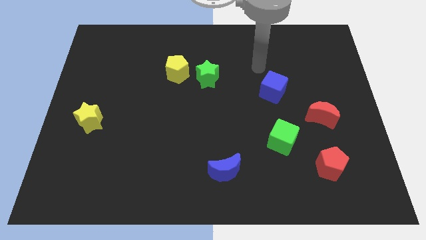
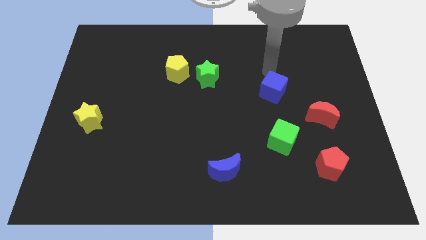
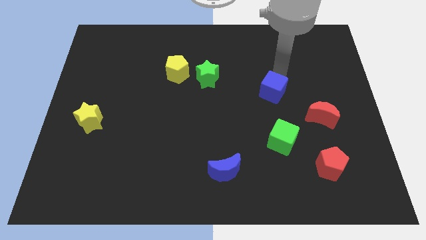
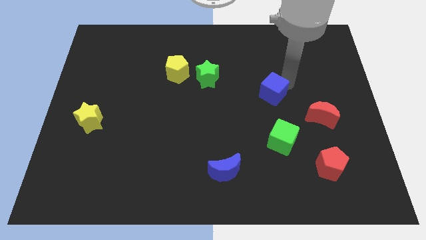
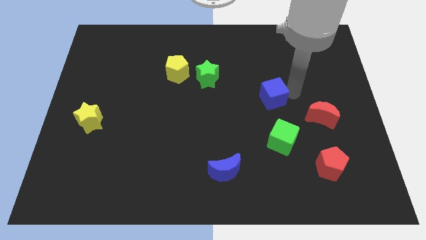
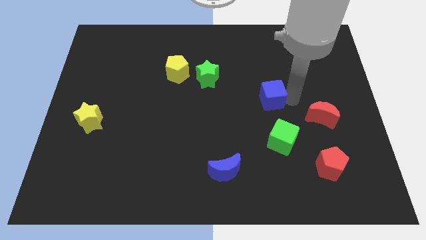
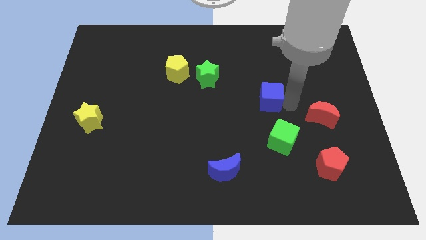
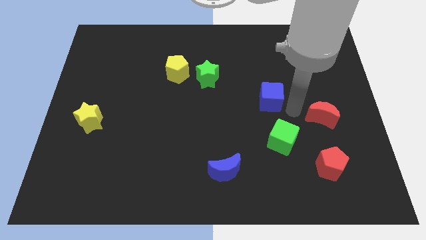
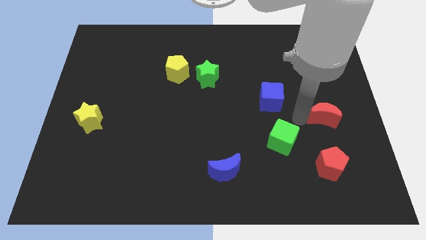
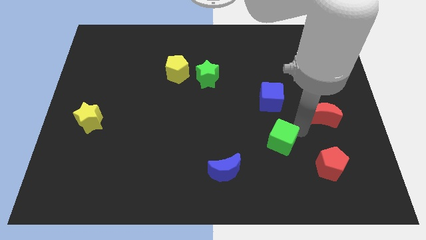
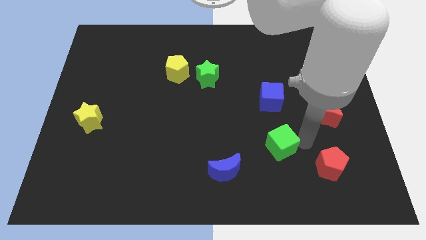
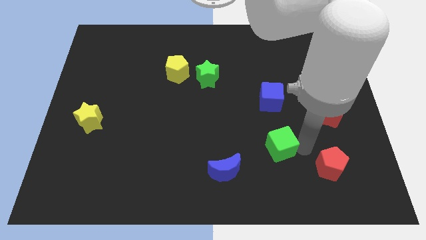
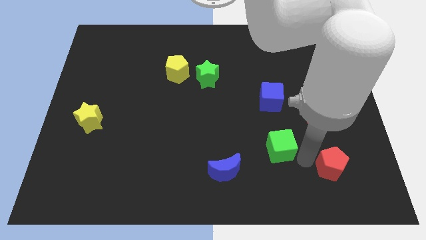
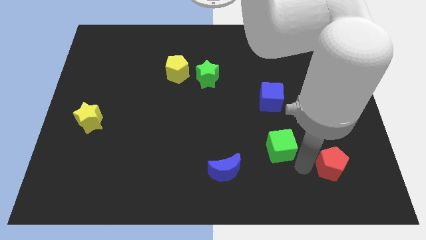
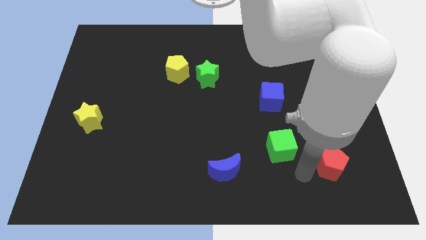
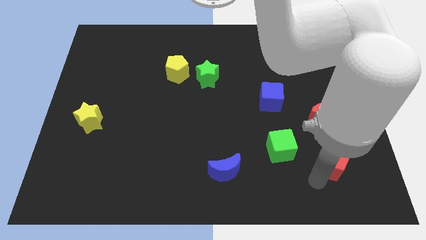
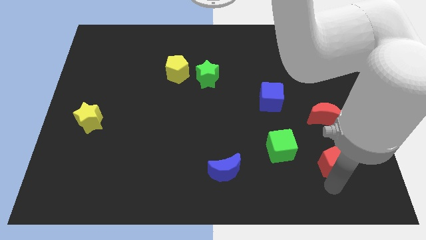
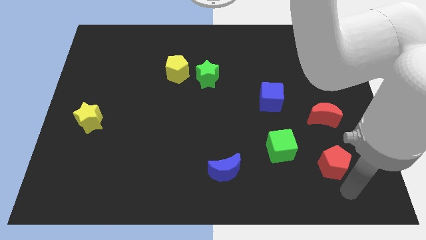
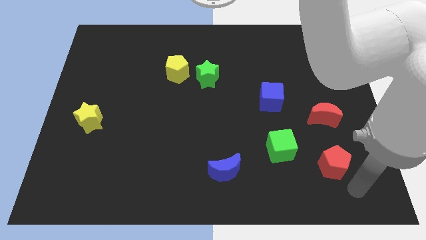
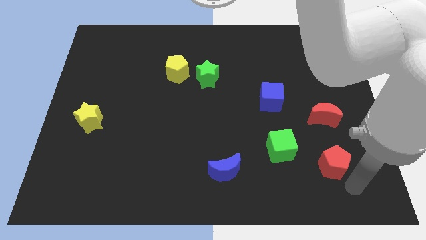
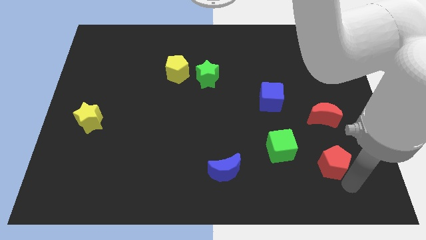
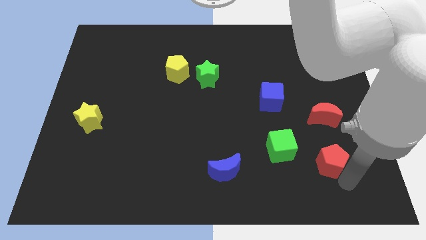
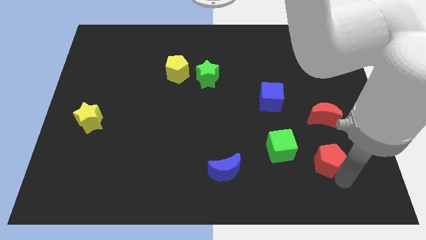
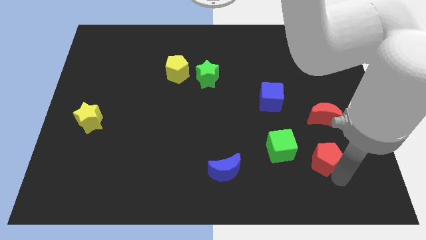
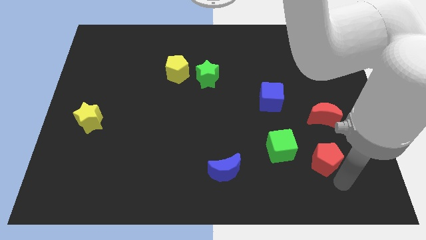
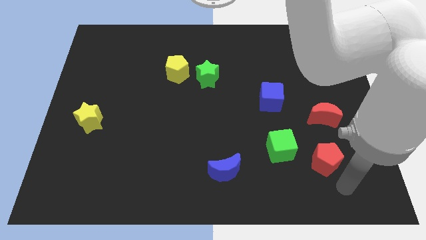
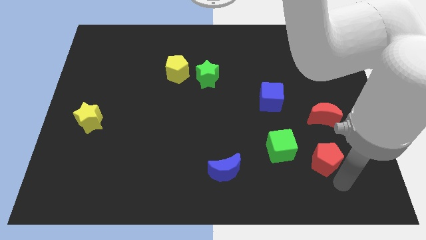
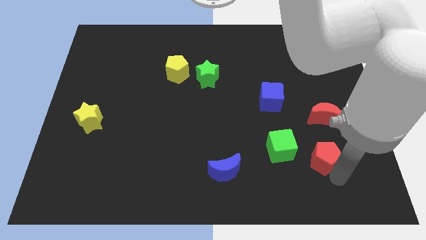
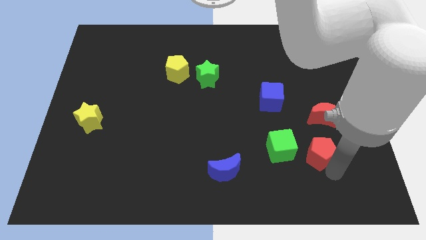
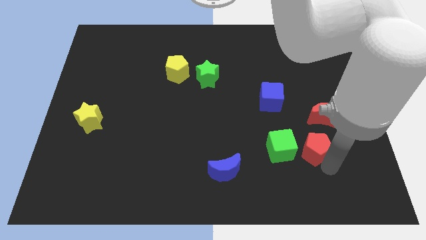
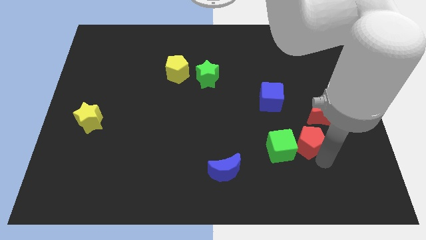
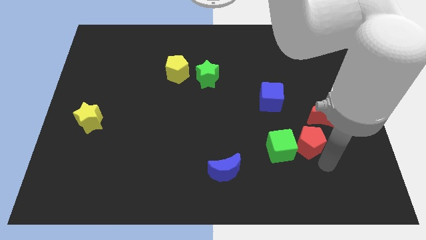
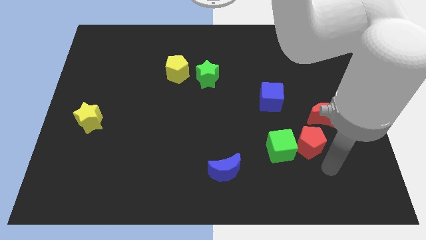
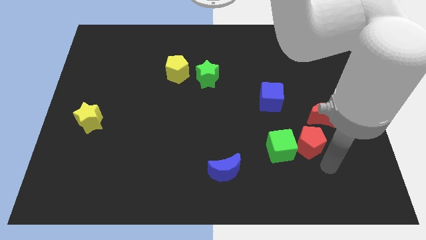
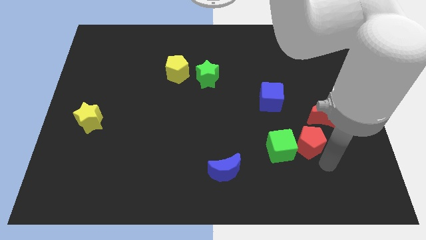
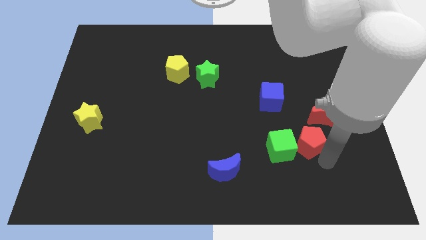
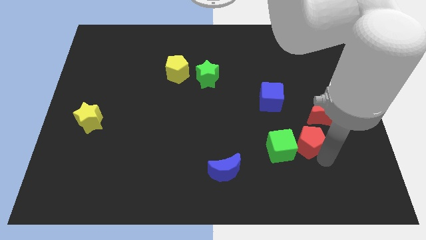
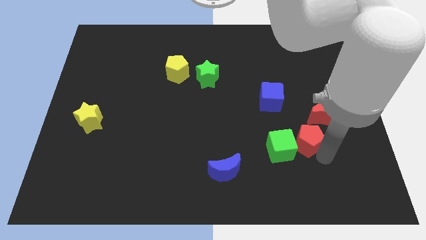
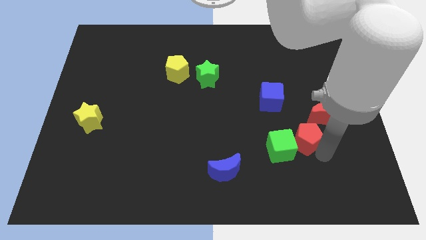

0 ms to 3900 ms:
slightly push the red pentagon up and to the left

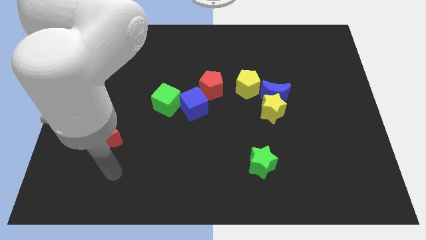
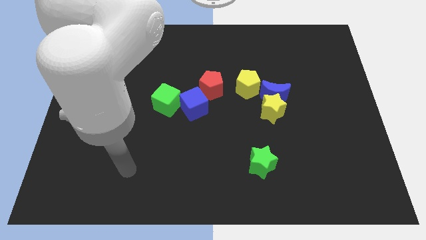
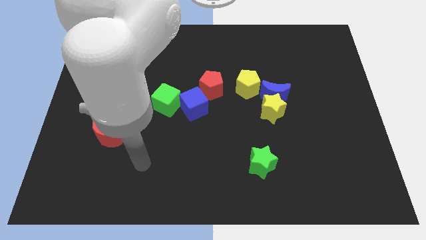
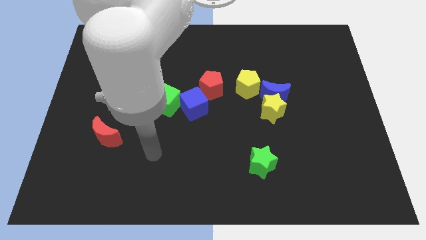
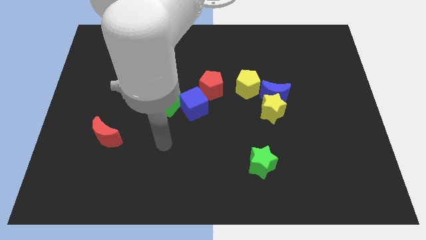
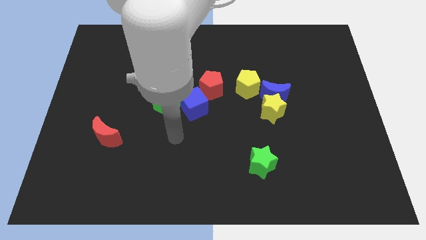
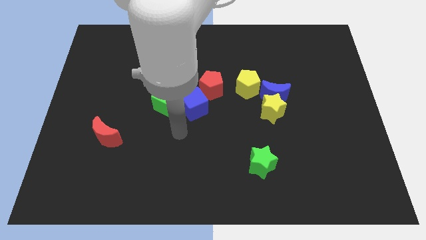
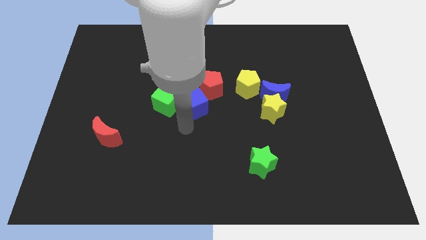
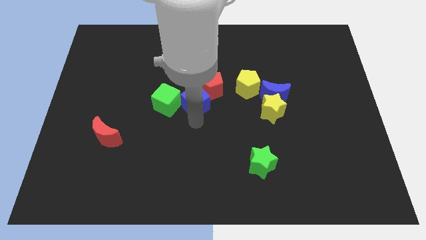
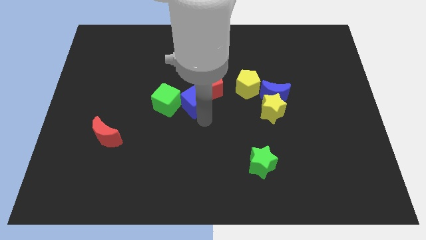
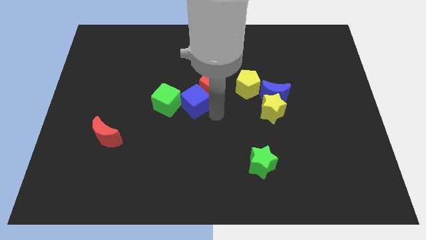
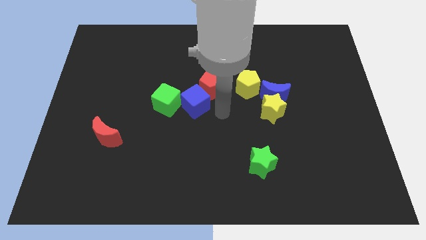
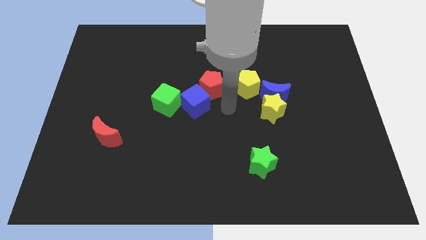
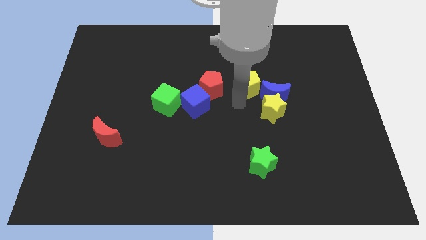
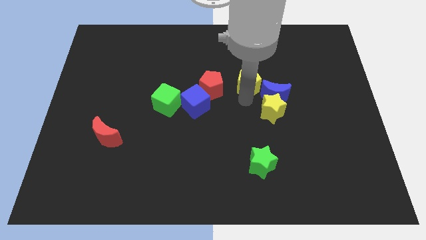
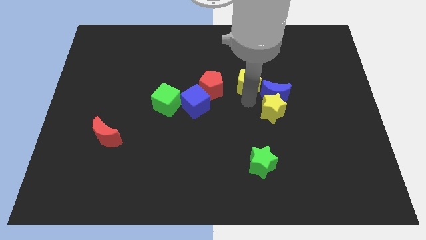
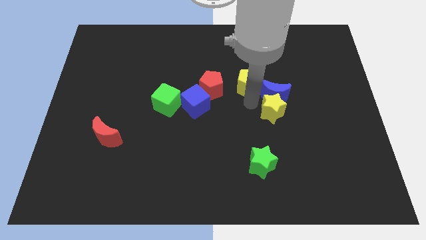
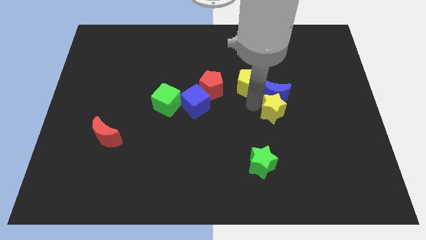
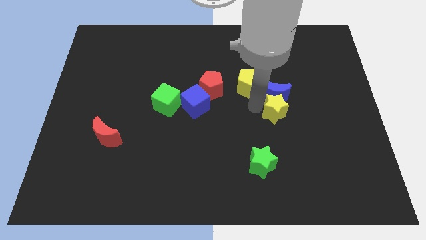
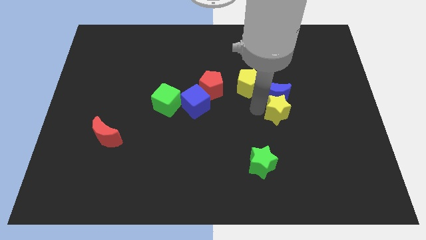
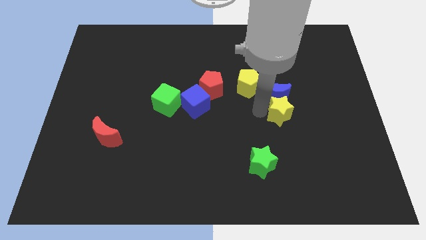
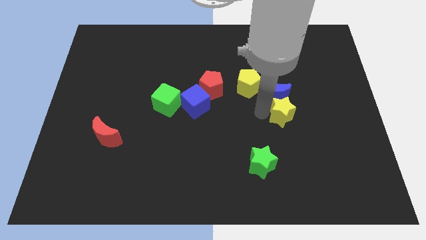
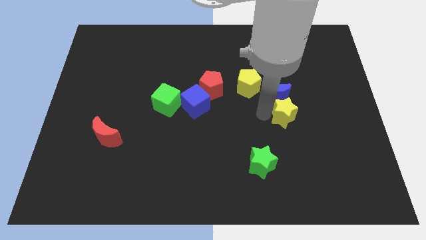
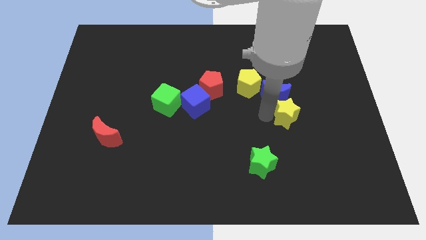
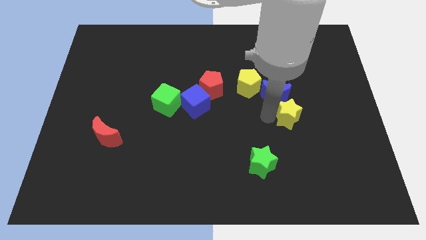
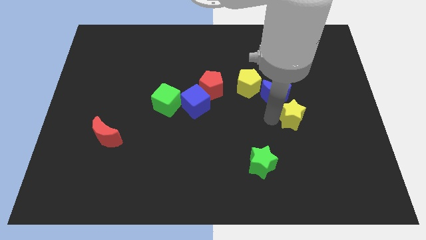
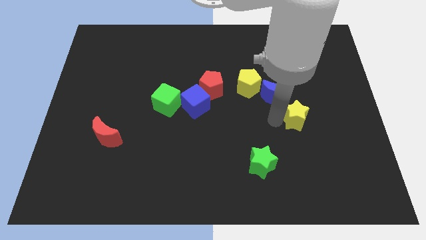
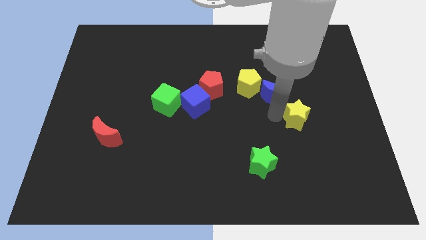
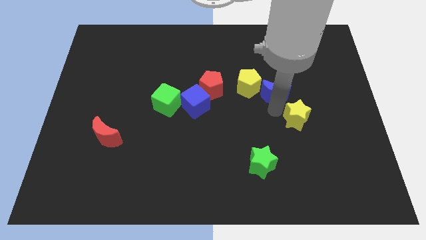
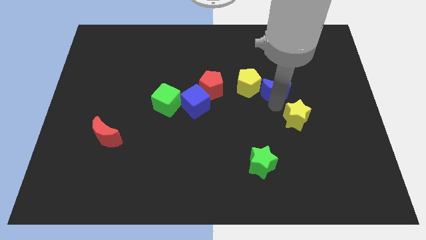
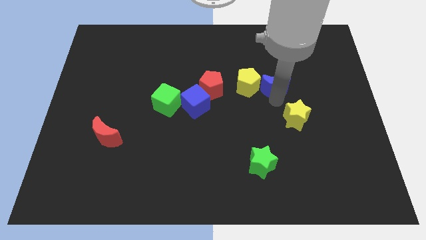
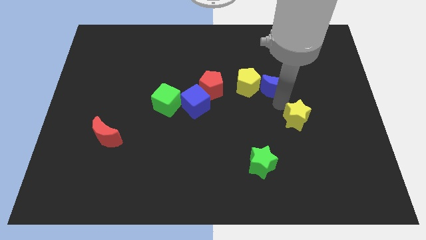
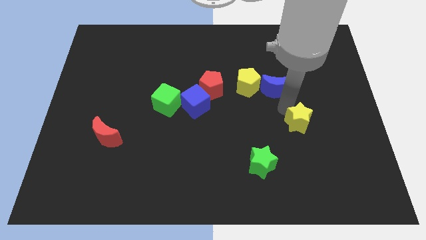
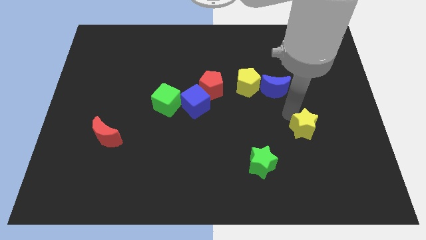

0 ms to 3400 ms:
push the yellow star down and to the right a bit

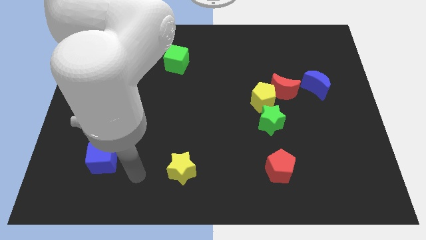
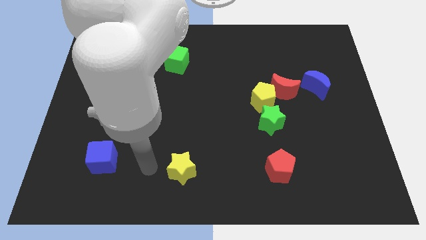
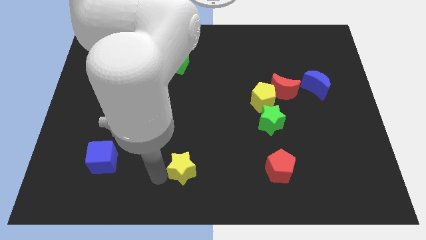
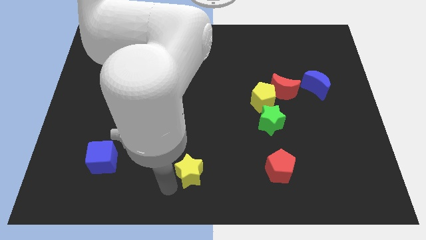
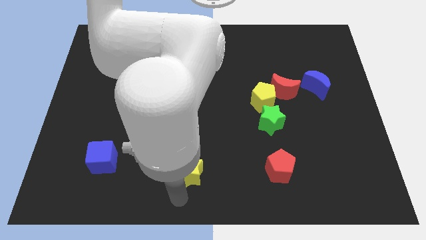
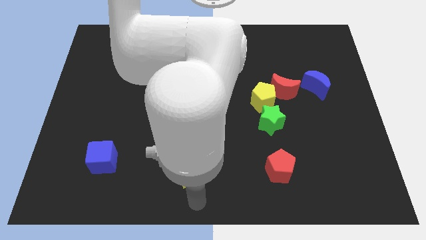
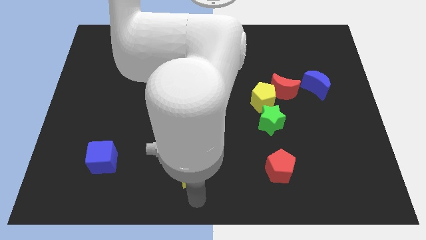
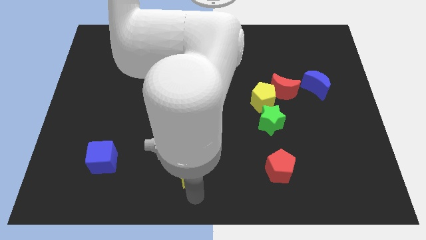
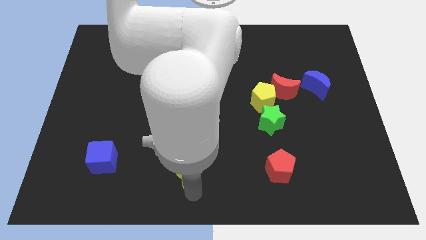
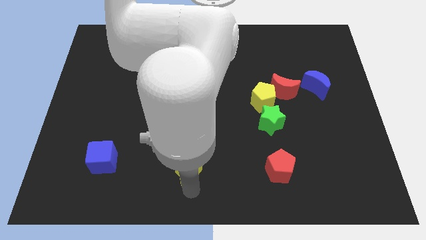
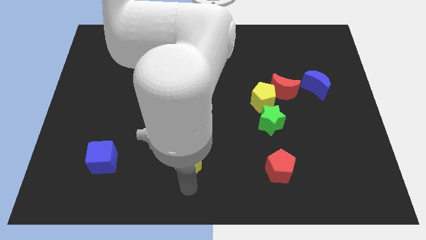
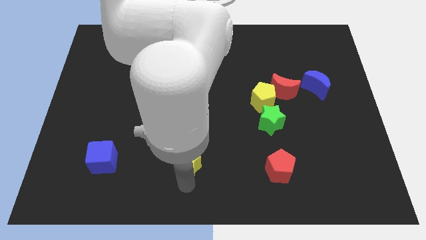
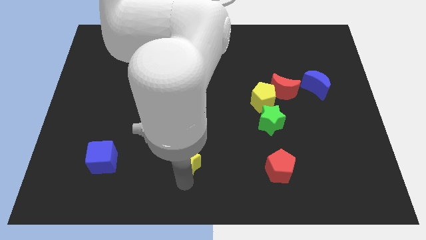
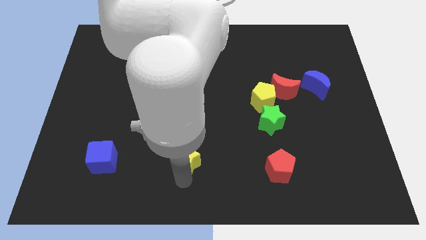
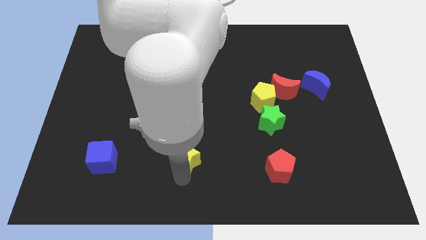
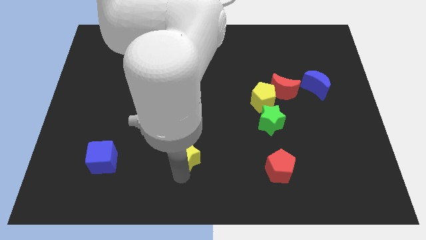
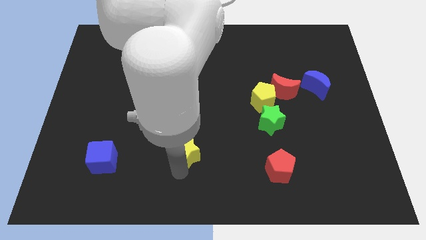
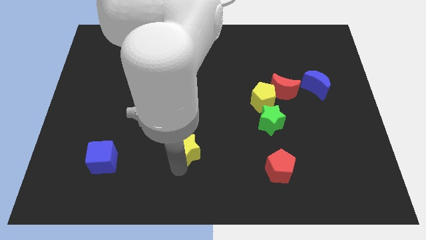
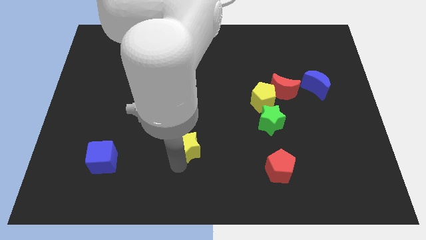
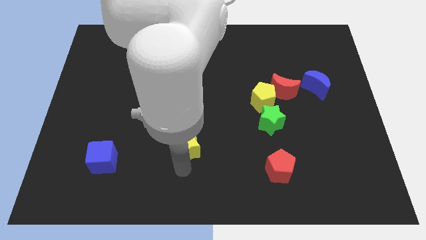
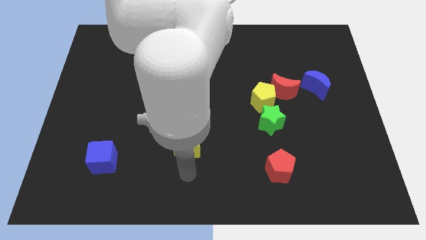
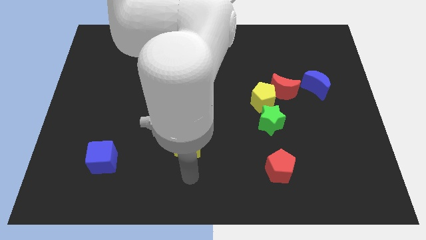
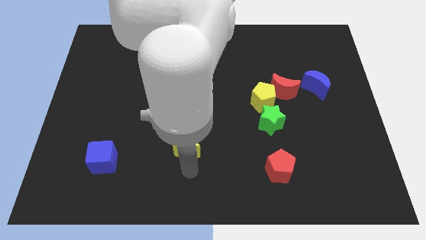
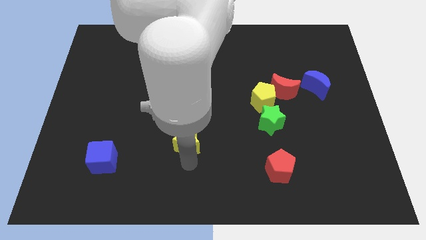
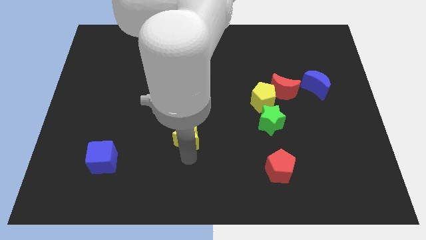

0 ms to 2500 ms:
slightly push the yellow star upwards
